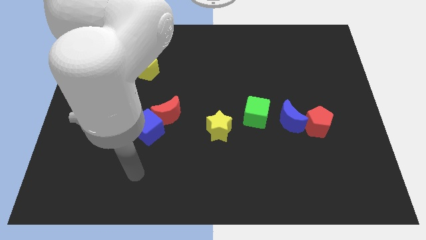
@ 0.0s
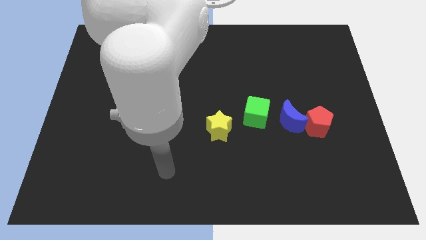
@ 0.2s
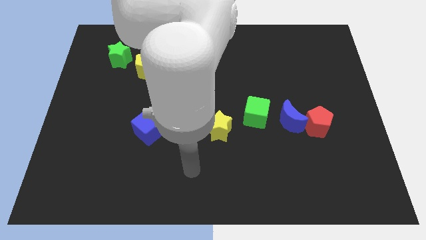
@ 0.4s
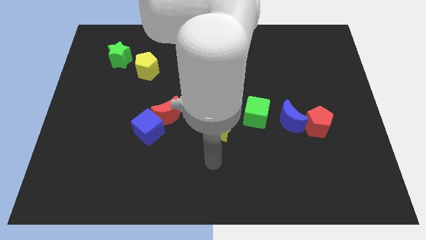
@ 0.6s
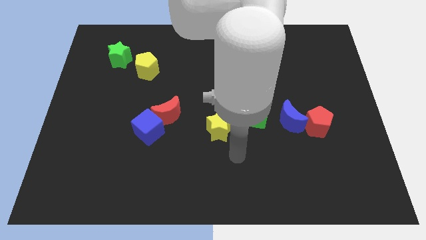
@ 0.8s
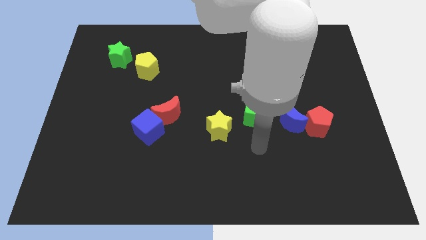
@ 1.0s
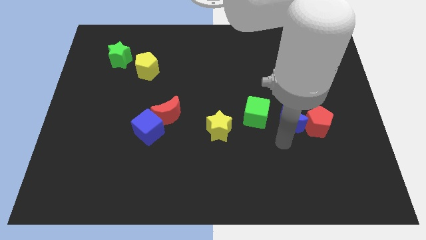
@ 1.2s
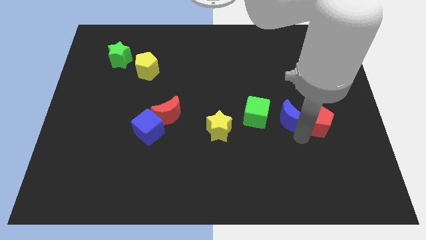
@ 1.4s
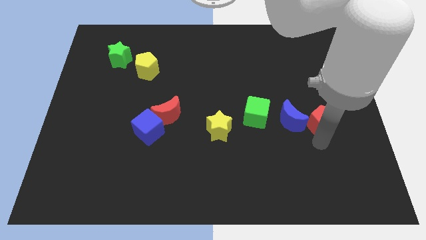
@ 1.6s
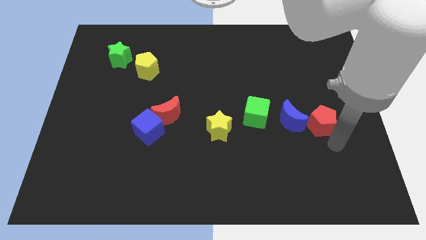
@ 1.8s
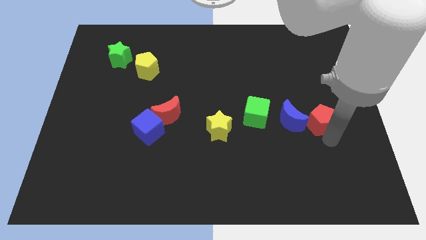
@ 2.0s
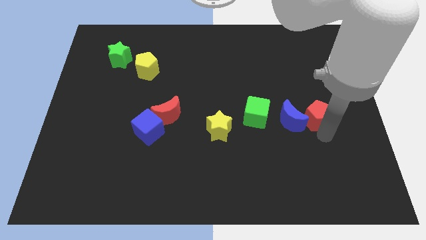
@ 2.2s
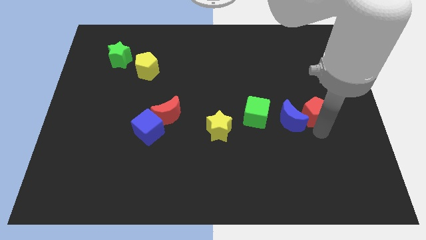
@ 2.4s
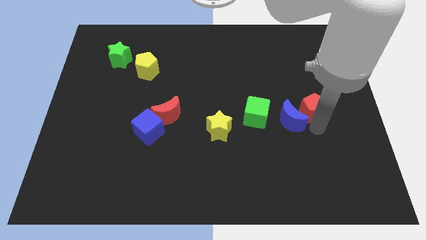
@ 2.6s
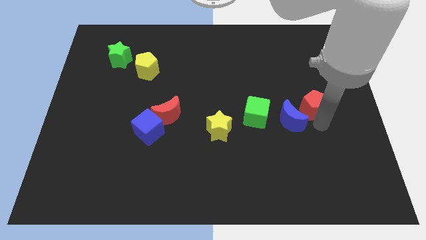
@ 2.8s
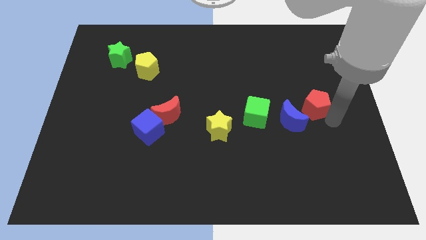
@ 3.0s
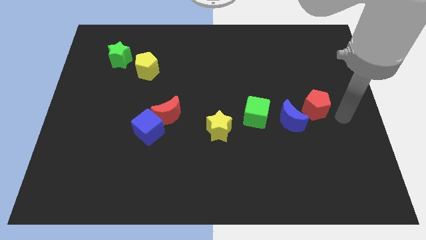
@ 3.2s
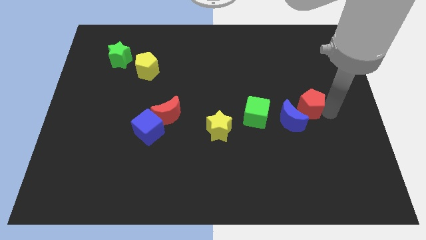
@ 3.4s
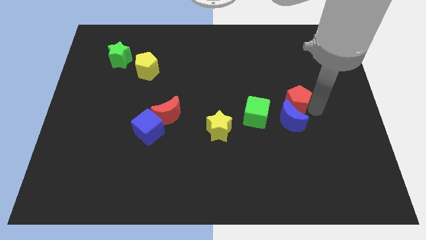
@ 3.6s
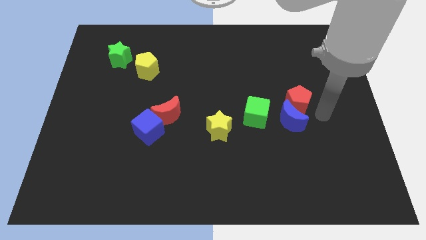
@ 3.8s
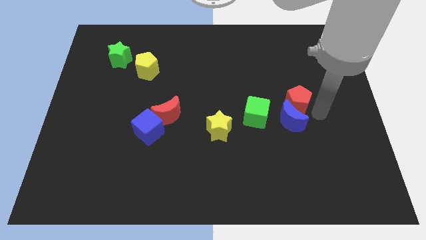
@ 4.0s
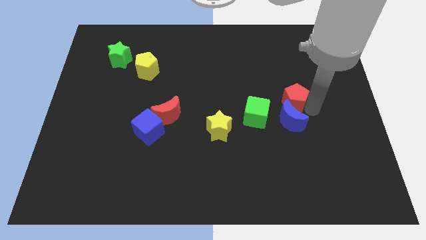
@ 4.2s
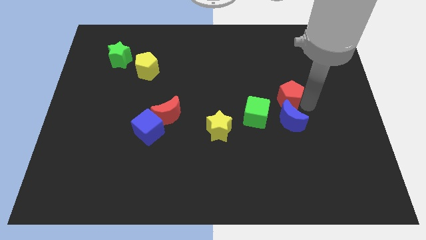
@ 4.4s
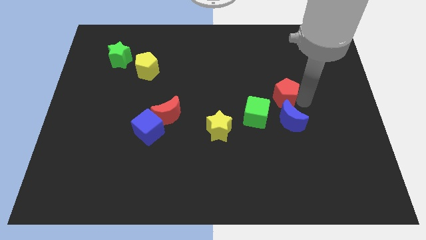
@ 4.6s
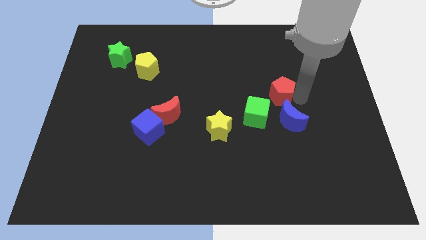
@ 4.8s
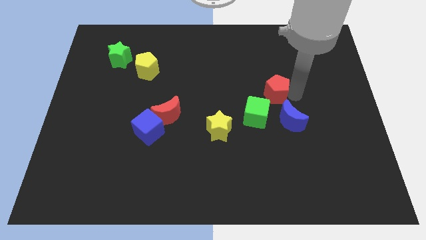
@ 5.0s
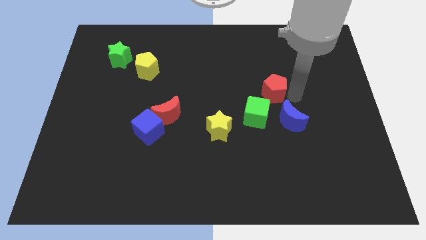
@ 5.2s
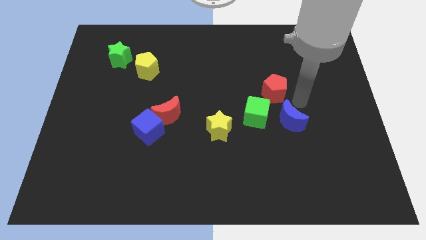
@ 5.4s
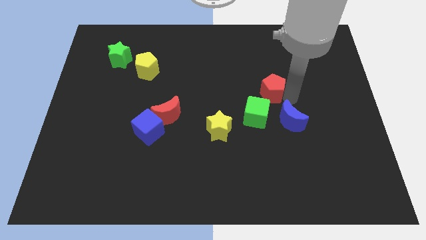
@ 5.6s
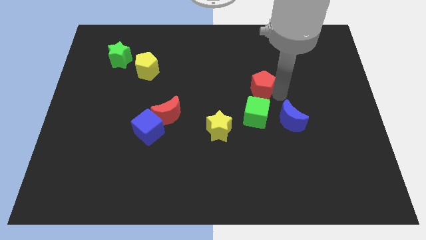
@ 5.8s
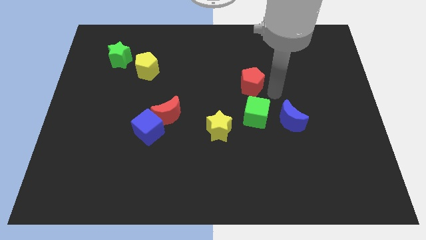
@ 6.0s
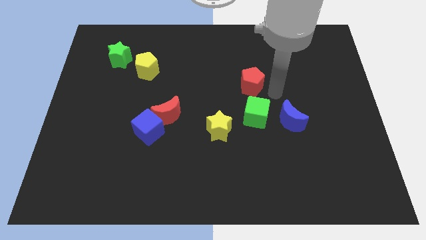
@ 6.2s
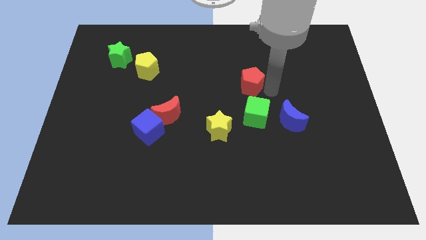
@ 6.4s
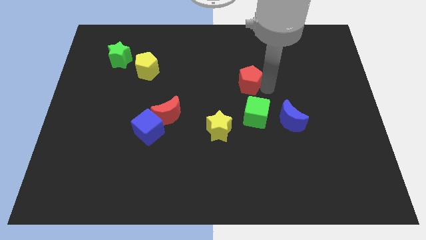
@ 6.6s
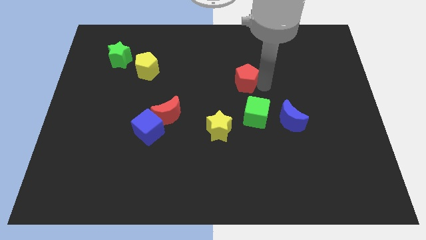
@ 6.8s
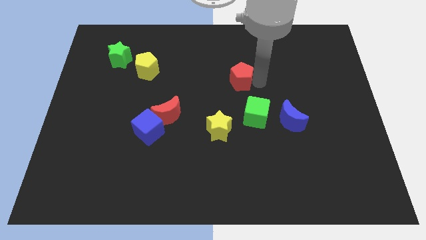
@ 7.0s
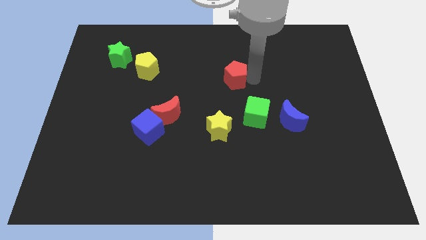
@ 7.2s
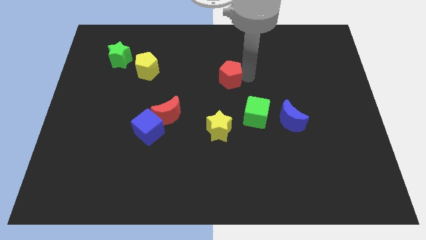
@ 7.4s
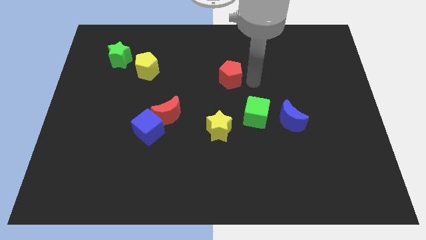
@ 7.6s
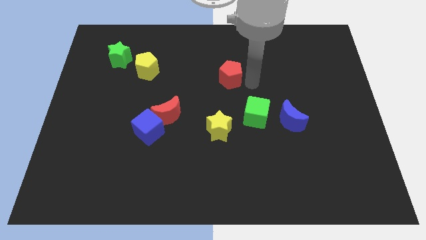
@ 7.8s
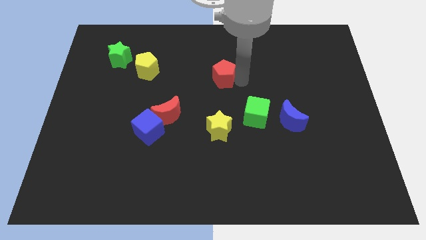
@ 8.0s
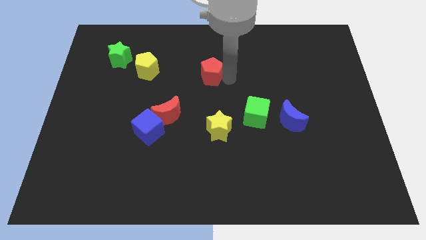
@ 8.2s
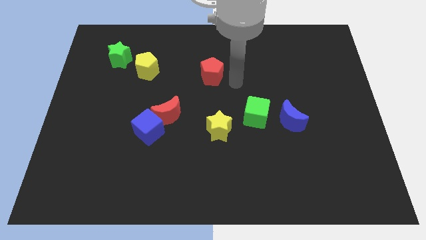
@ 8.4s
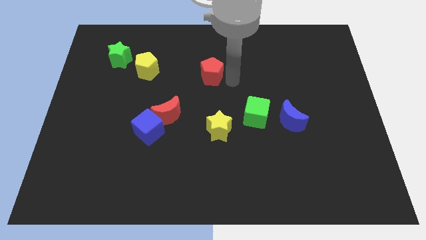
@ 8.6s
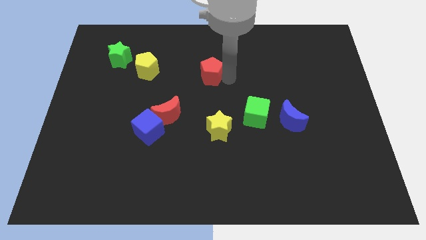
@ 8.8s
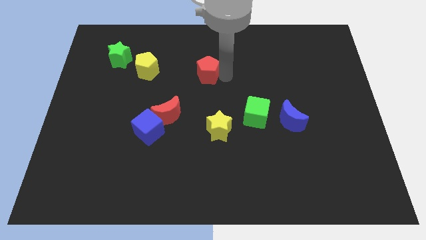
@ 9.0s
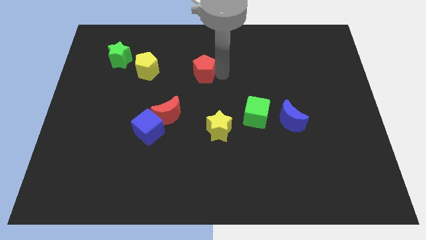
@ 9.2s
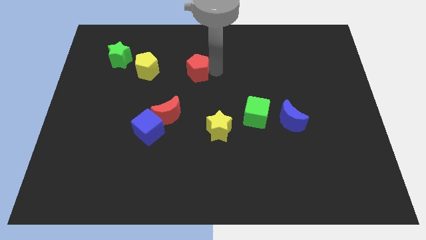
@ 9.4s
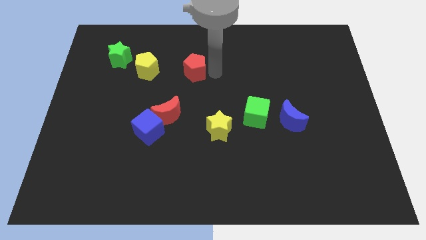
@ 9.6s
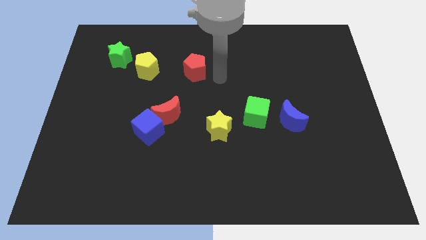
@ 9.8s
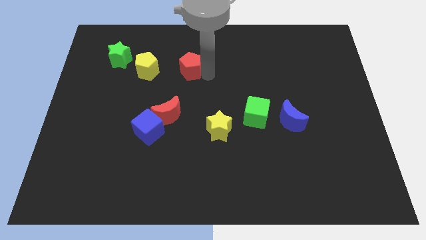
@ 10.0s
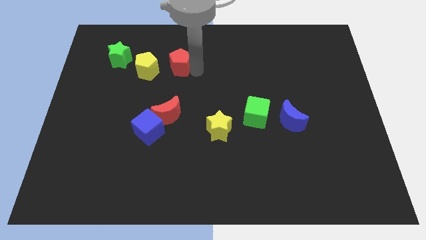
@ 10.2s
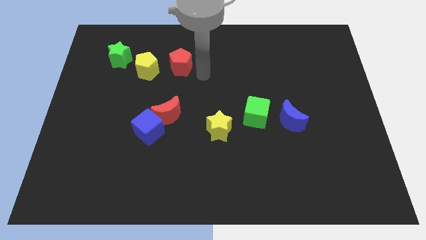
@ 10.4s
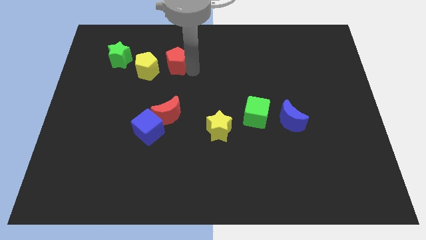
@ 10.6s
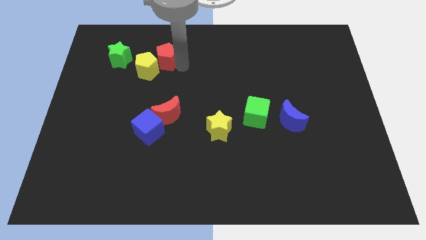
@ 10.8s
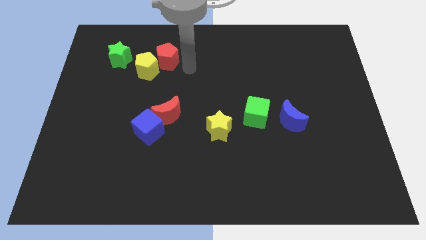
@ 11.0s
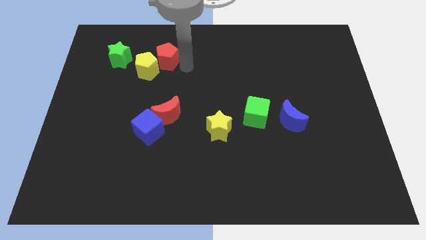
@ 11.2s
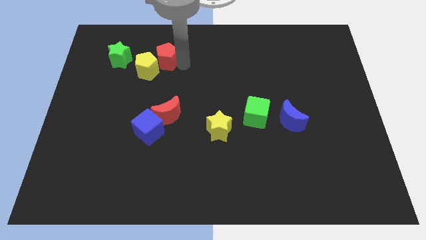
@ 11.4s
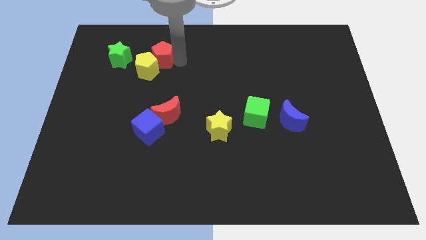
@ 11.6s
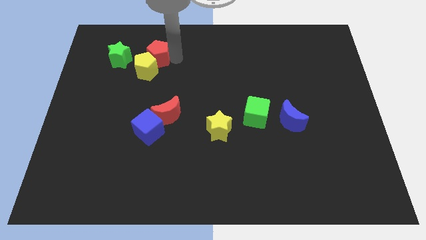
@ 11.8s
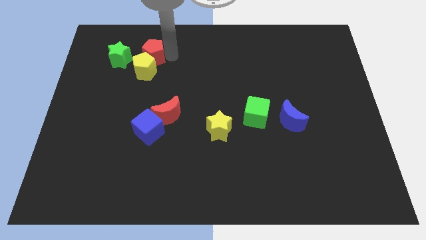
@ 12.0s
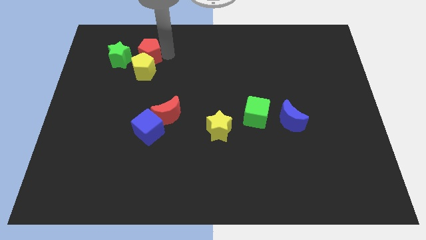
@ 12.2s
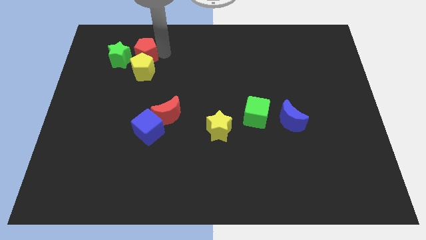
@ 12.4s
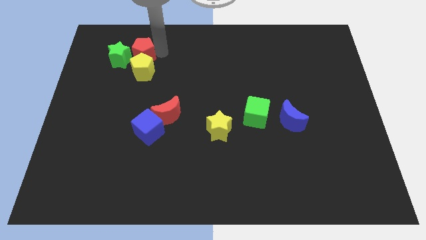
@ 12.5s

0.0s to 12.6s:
put the red pentagon close to the green star

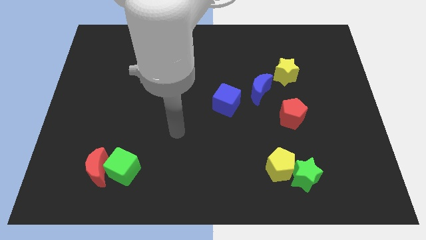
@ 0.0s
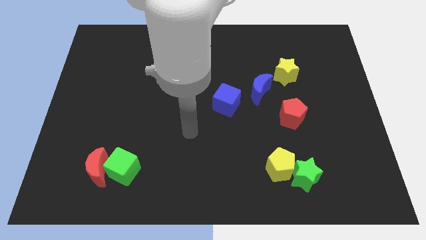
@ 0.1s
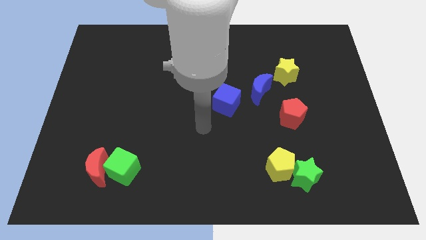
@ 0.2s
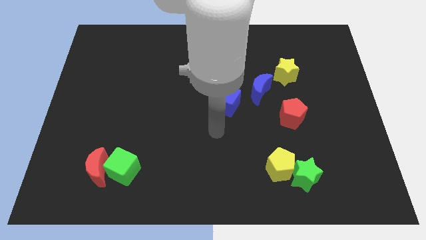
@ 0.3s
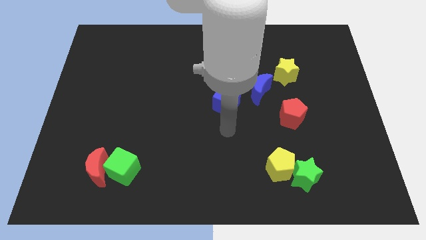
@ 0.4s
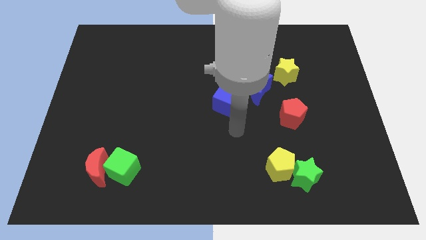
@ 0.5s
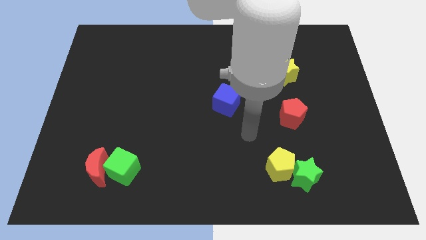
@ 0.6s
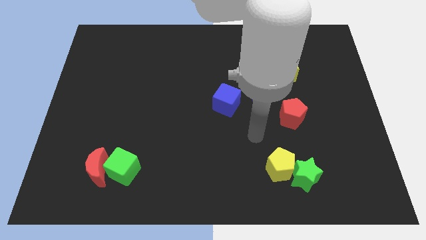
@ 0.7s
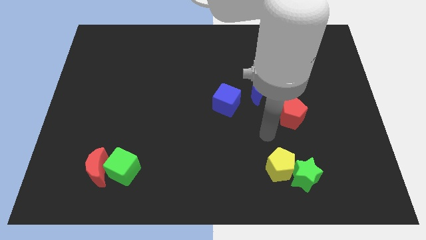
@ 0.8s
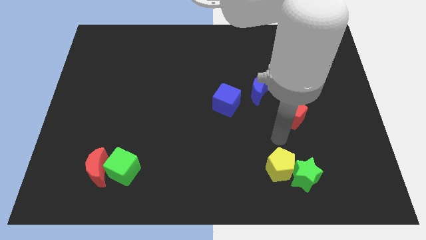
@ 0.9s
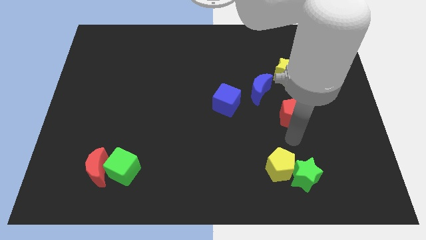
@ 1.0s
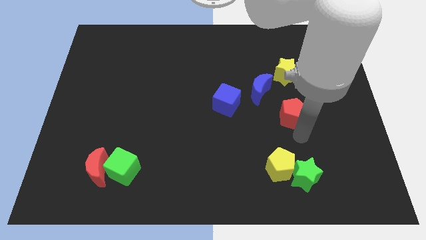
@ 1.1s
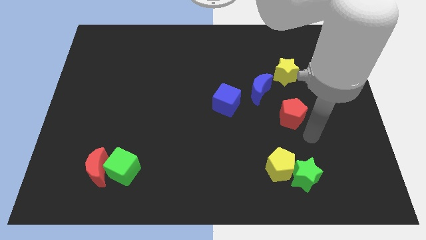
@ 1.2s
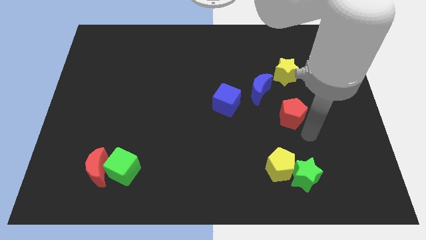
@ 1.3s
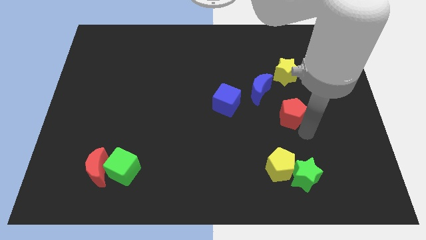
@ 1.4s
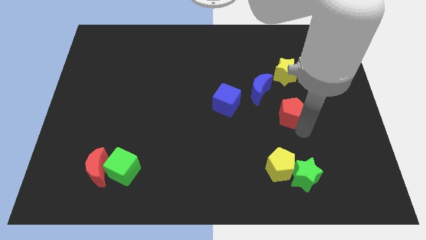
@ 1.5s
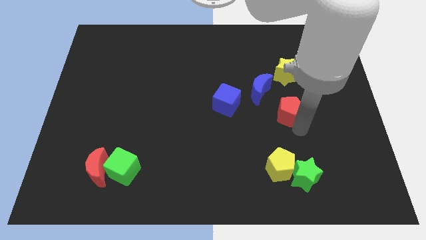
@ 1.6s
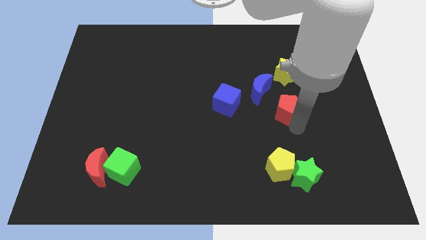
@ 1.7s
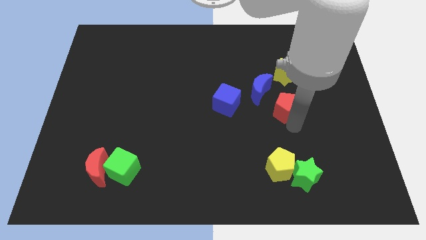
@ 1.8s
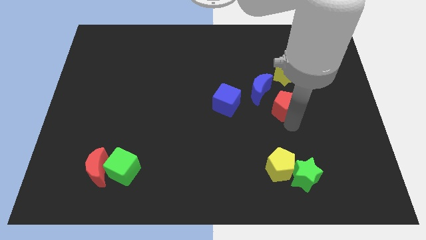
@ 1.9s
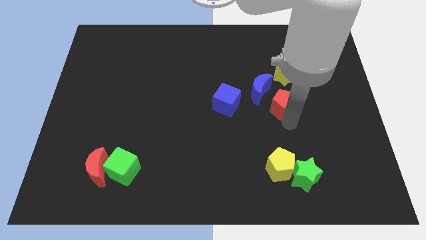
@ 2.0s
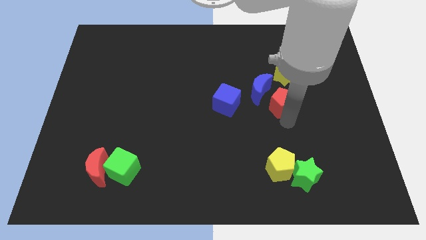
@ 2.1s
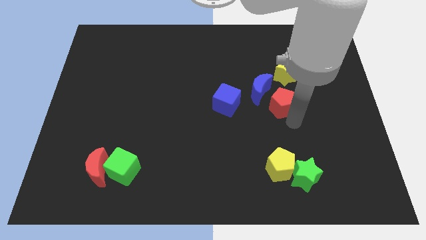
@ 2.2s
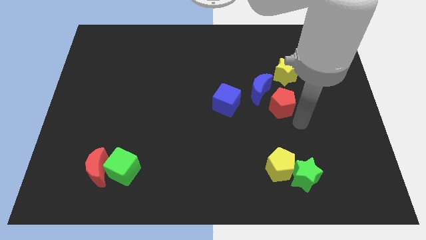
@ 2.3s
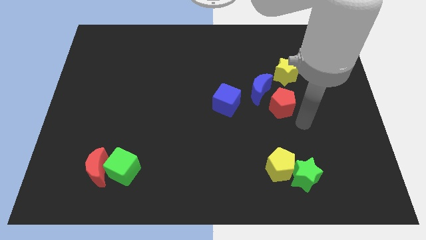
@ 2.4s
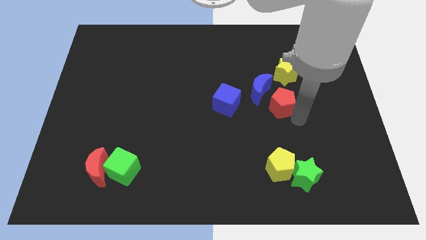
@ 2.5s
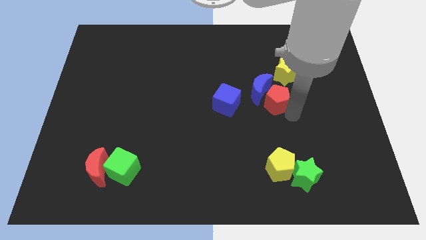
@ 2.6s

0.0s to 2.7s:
put the red pentagon to the blue moon
